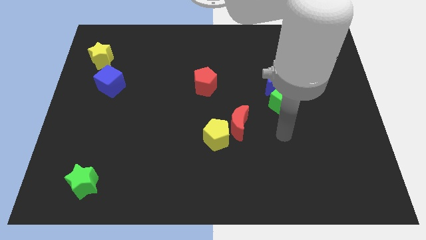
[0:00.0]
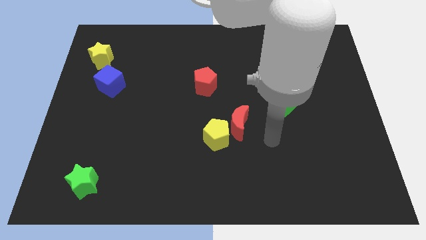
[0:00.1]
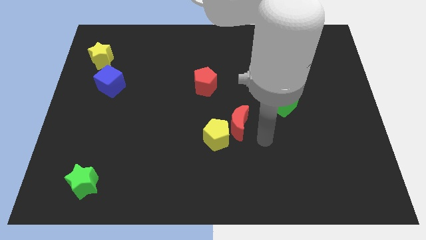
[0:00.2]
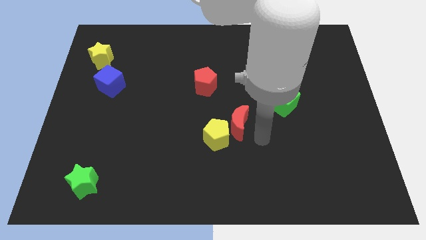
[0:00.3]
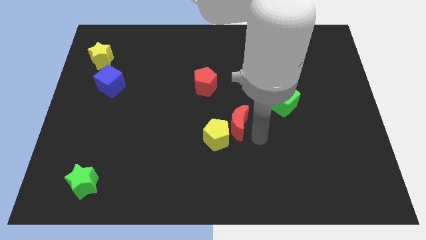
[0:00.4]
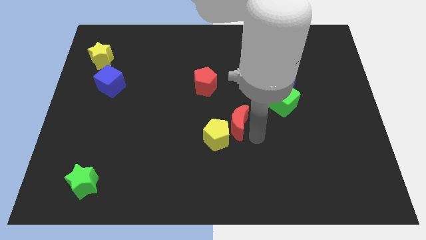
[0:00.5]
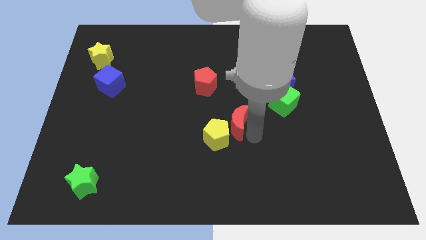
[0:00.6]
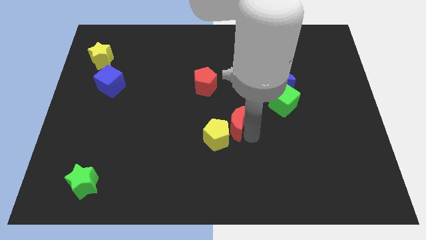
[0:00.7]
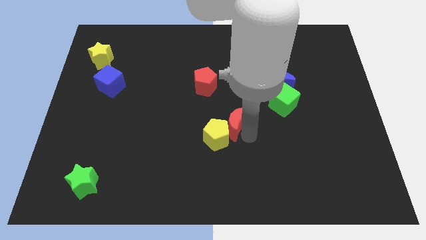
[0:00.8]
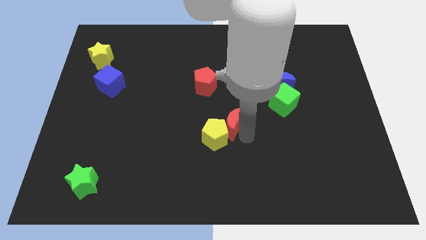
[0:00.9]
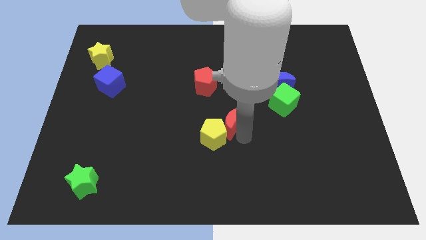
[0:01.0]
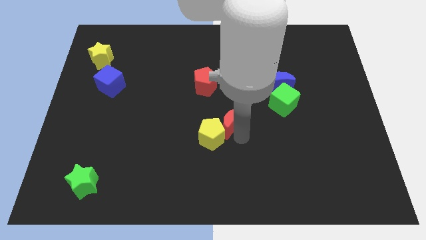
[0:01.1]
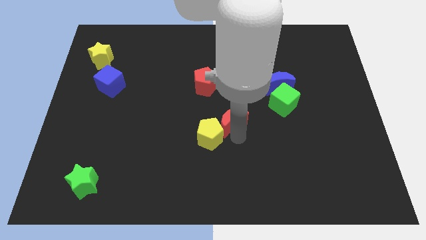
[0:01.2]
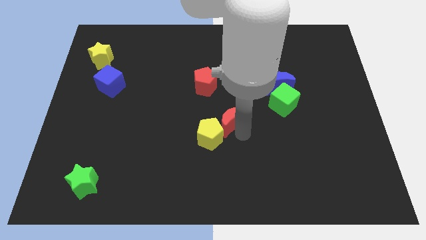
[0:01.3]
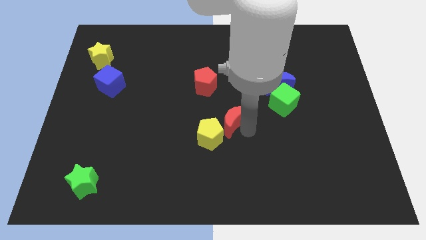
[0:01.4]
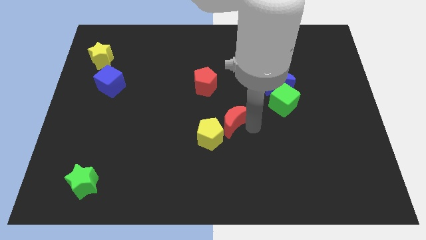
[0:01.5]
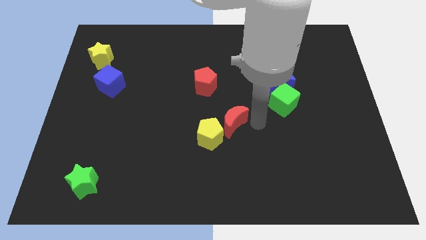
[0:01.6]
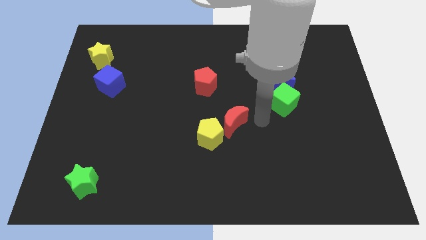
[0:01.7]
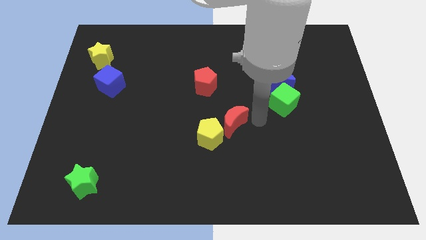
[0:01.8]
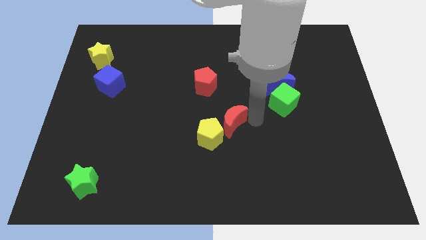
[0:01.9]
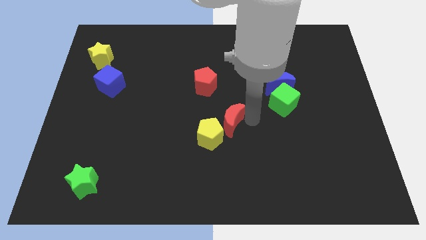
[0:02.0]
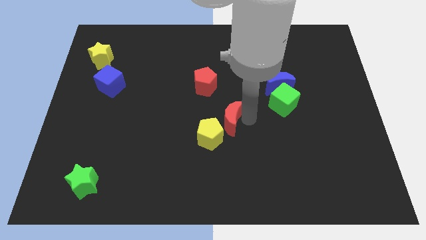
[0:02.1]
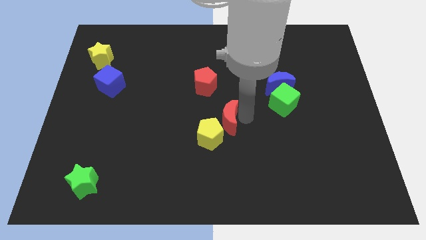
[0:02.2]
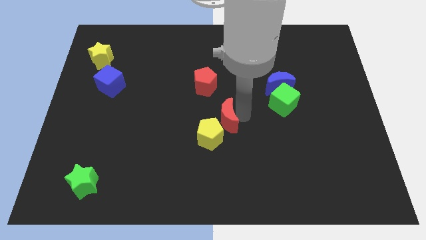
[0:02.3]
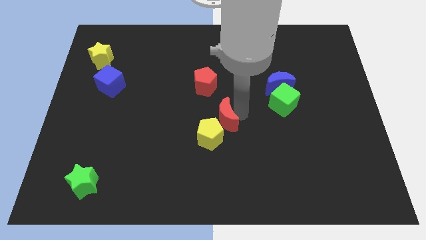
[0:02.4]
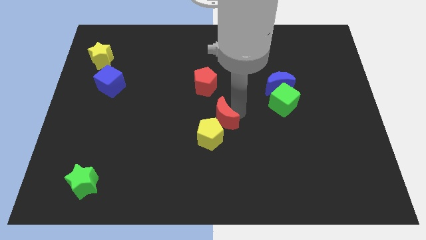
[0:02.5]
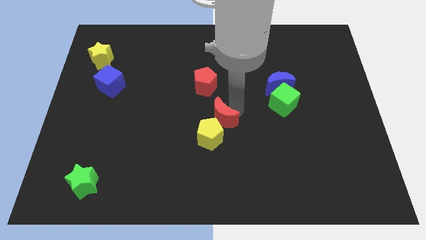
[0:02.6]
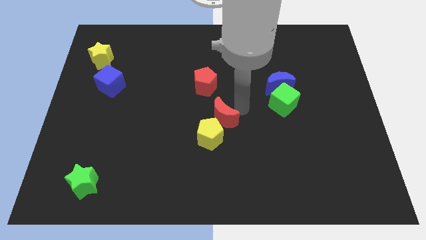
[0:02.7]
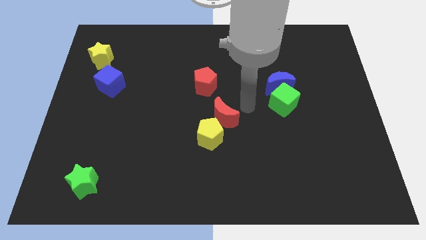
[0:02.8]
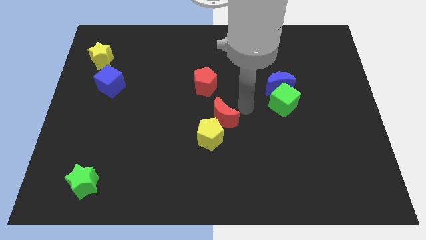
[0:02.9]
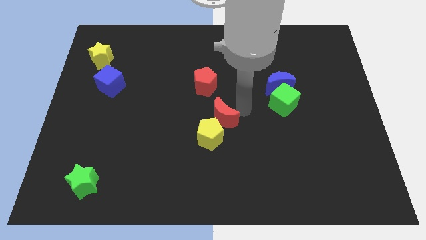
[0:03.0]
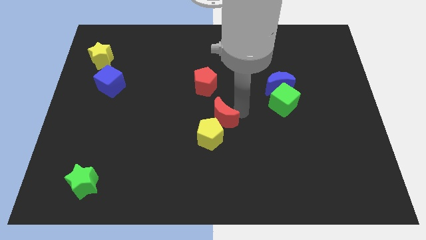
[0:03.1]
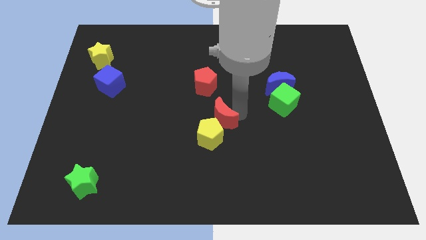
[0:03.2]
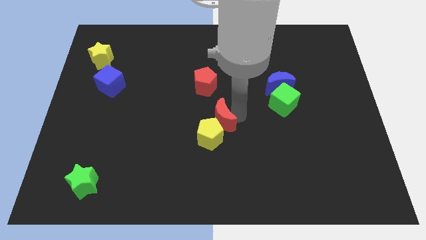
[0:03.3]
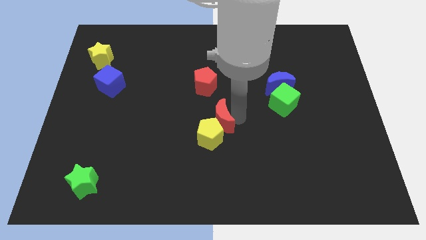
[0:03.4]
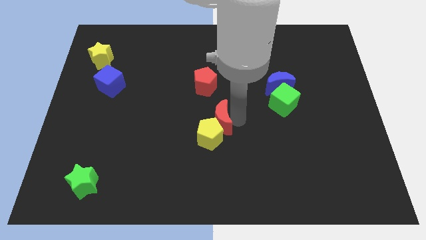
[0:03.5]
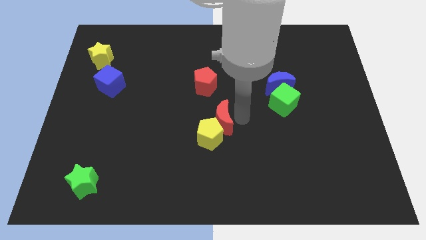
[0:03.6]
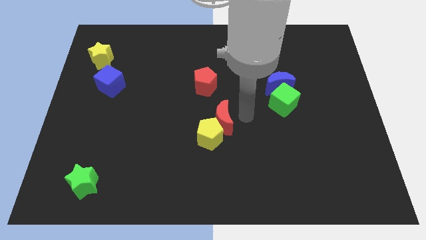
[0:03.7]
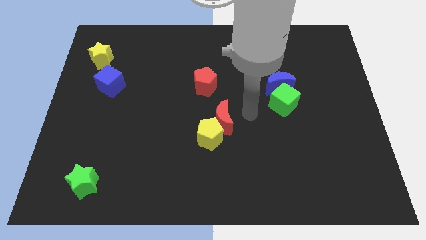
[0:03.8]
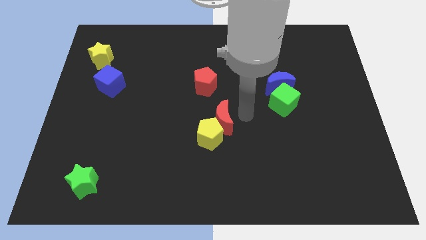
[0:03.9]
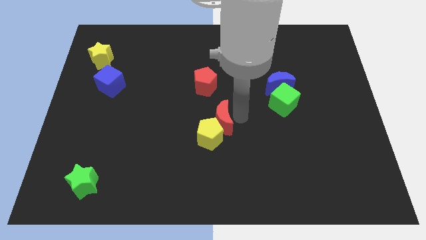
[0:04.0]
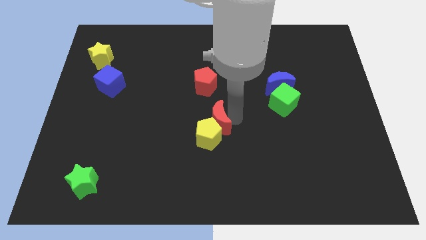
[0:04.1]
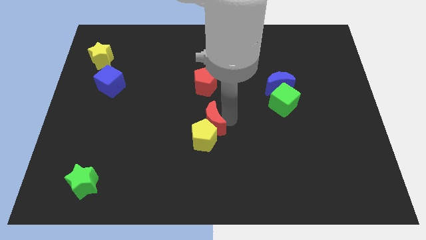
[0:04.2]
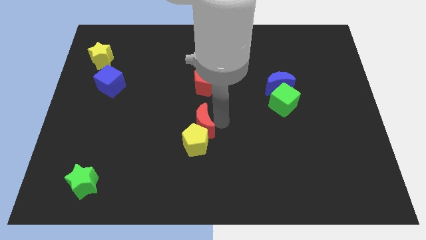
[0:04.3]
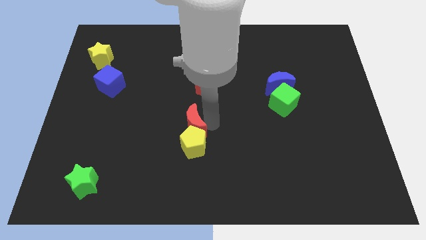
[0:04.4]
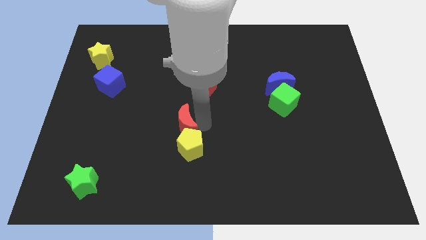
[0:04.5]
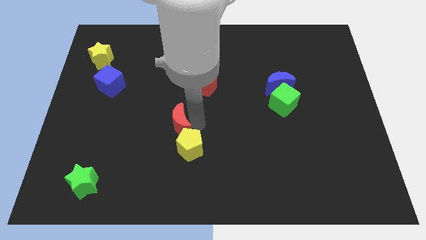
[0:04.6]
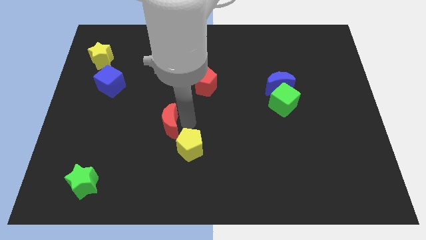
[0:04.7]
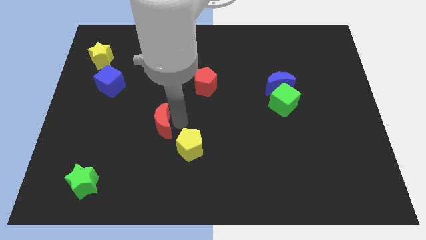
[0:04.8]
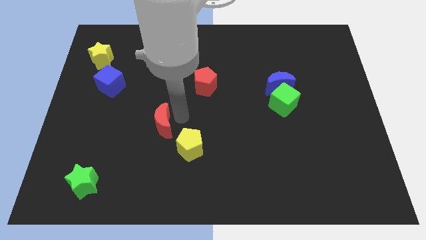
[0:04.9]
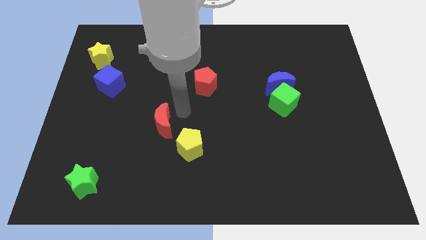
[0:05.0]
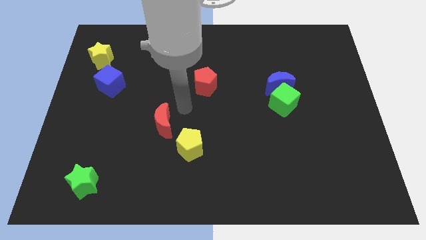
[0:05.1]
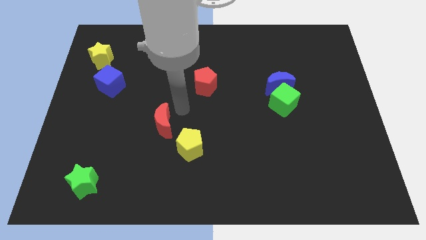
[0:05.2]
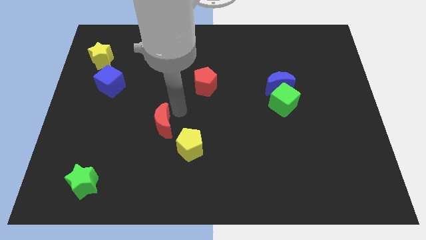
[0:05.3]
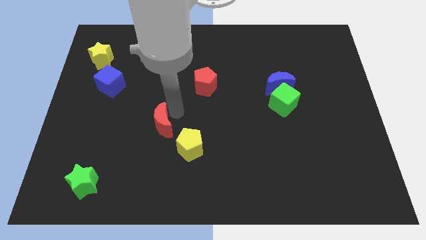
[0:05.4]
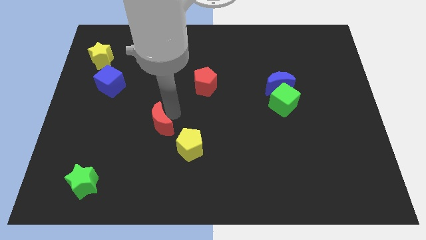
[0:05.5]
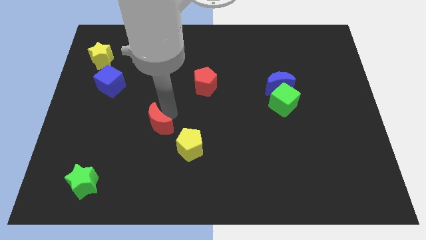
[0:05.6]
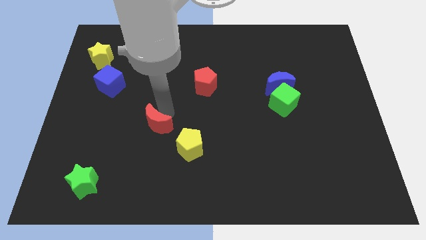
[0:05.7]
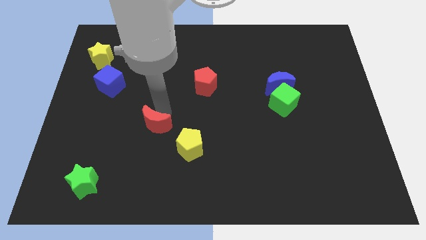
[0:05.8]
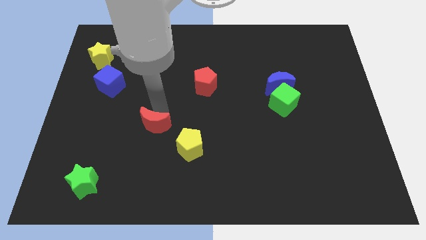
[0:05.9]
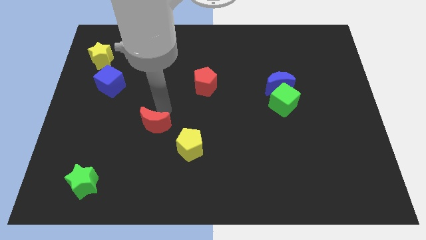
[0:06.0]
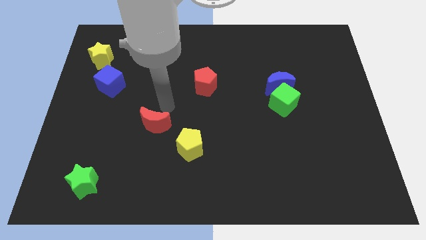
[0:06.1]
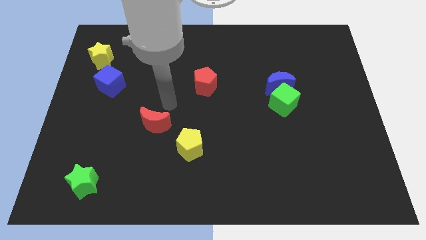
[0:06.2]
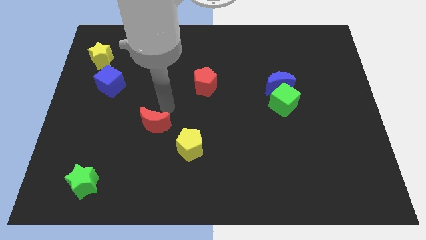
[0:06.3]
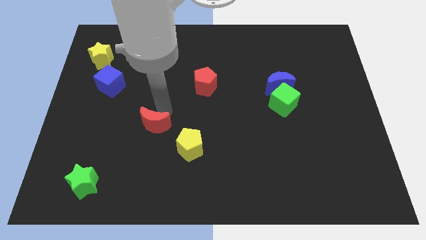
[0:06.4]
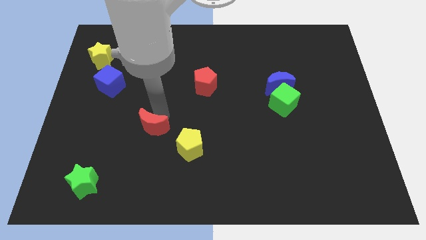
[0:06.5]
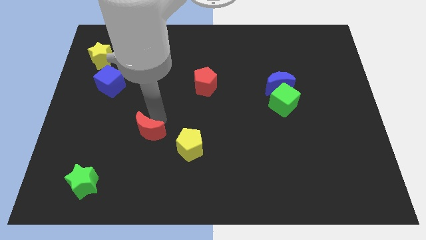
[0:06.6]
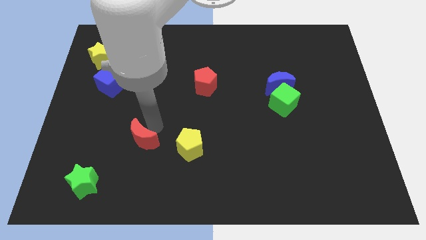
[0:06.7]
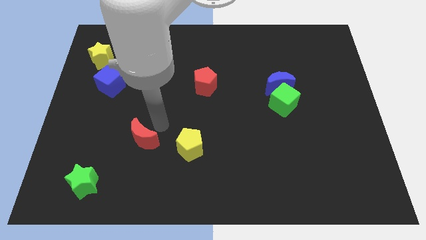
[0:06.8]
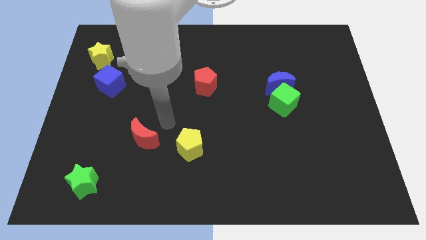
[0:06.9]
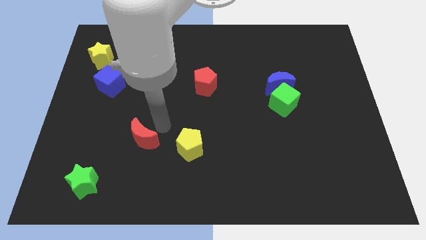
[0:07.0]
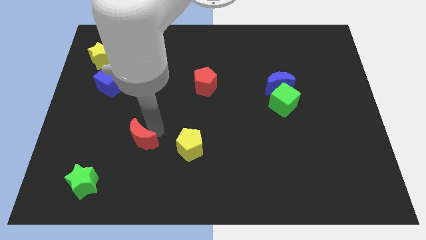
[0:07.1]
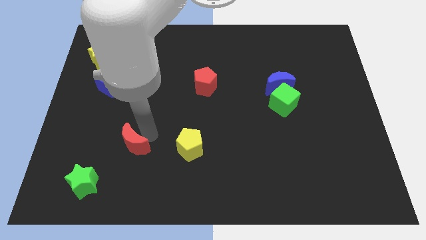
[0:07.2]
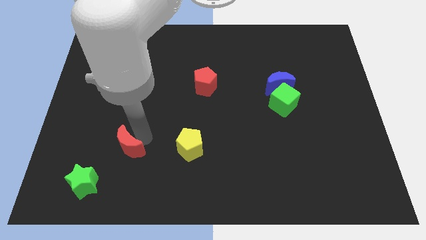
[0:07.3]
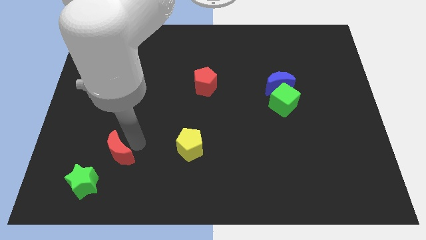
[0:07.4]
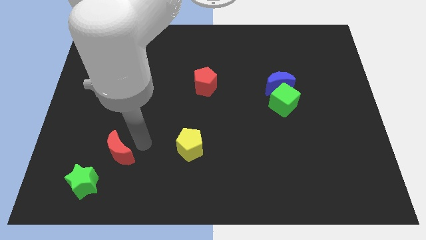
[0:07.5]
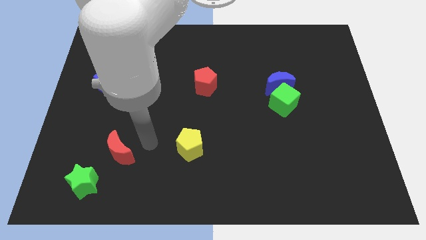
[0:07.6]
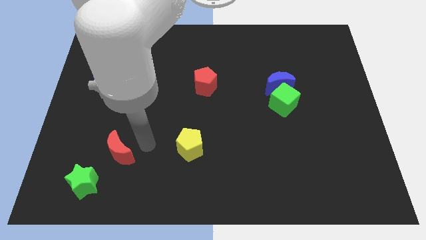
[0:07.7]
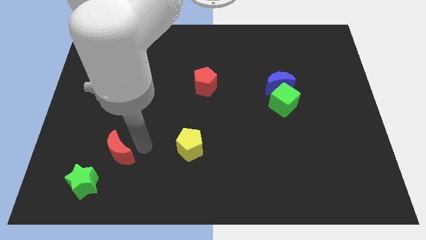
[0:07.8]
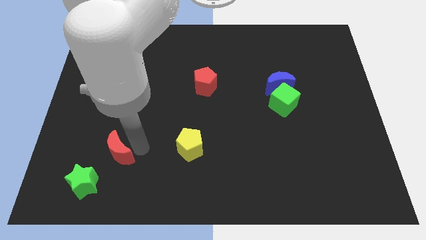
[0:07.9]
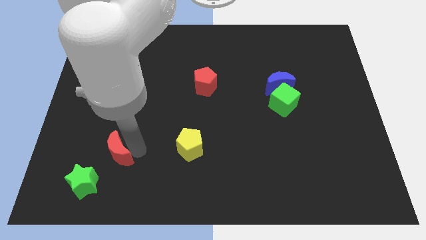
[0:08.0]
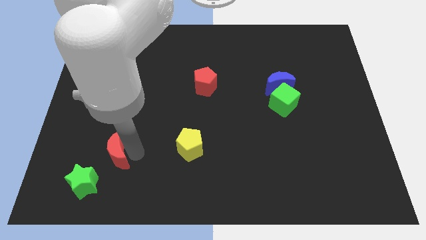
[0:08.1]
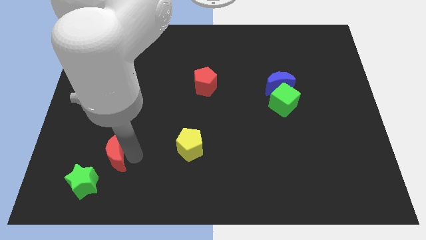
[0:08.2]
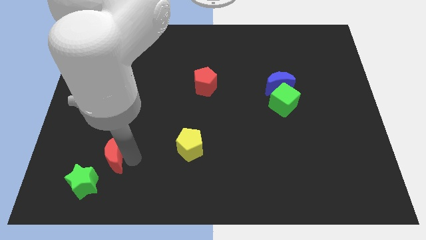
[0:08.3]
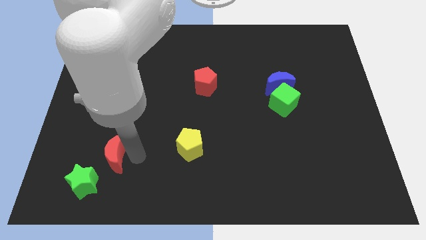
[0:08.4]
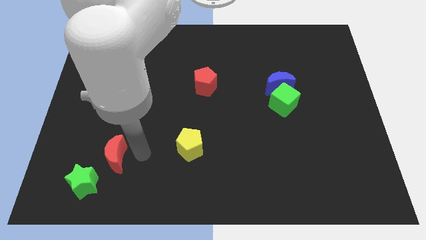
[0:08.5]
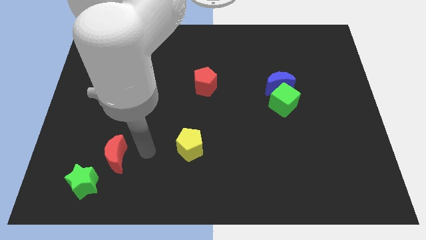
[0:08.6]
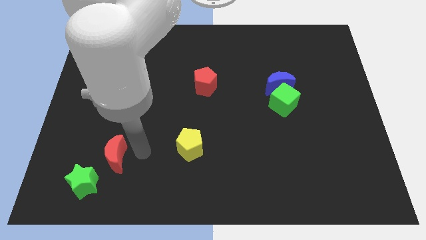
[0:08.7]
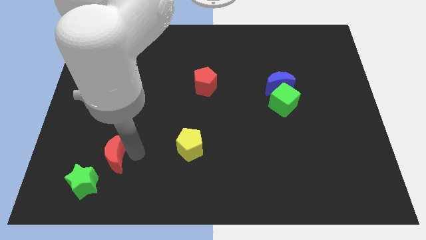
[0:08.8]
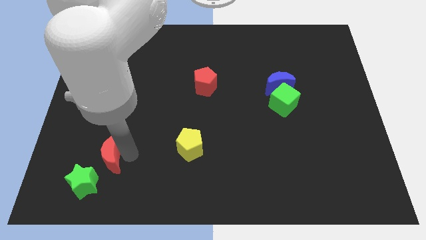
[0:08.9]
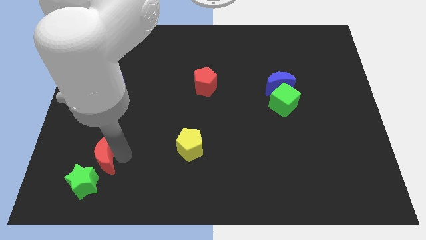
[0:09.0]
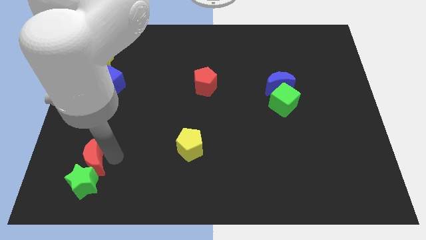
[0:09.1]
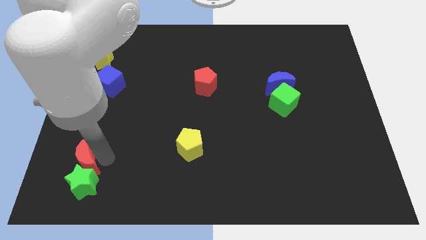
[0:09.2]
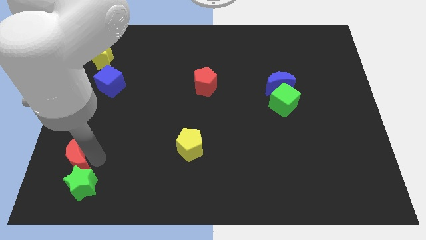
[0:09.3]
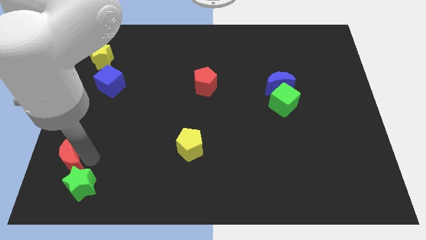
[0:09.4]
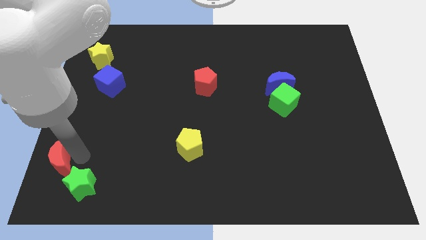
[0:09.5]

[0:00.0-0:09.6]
move the red moon to the bottom left corner
